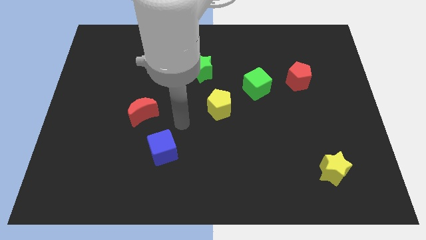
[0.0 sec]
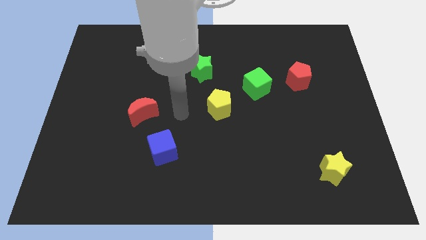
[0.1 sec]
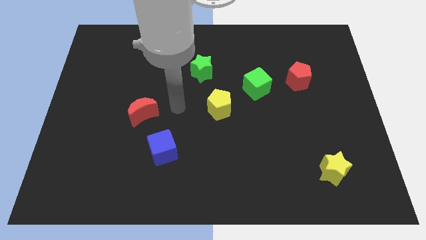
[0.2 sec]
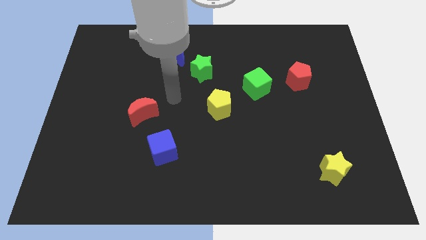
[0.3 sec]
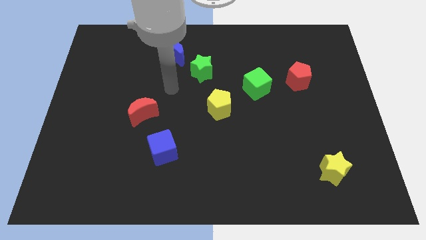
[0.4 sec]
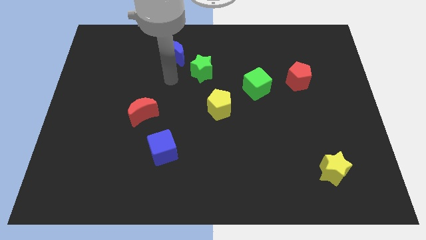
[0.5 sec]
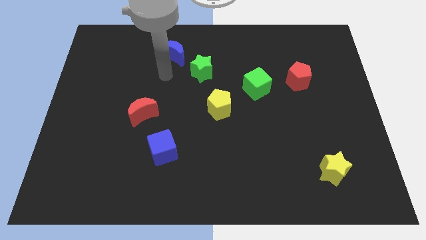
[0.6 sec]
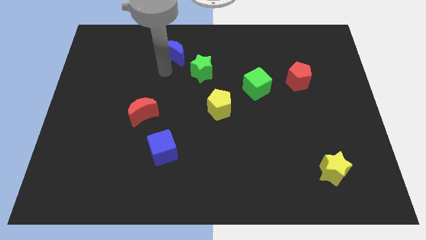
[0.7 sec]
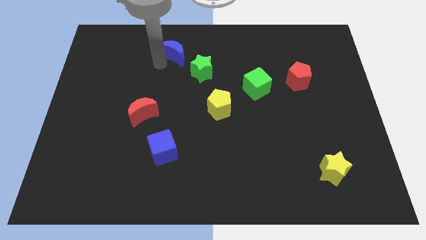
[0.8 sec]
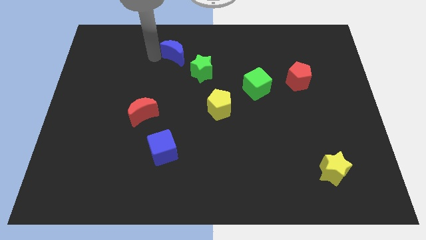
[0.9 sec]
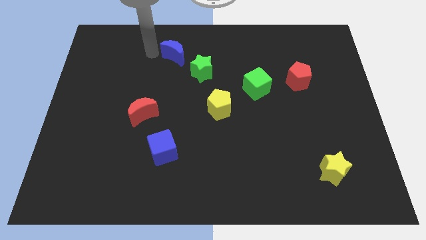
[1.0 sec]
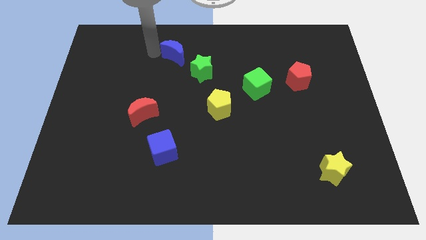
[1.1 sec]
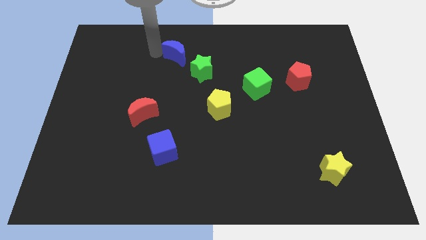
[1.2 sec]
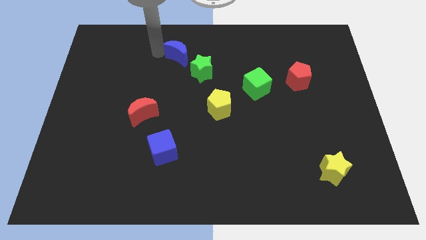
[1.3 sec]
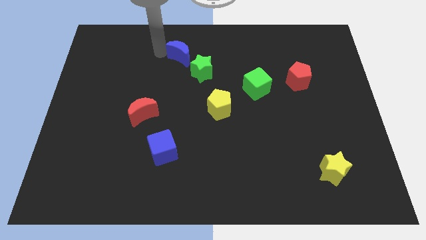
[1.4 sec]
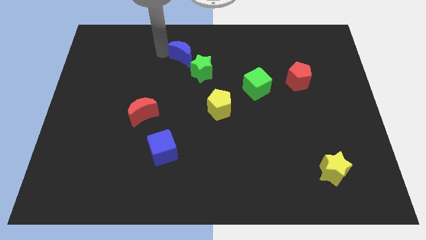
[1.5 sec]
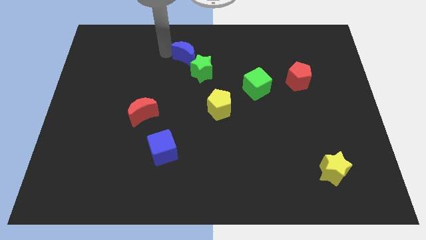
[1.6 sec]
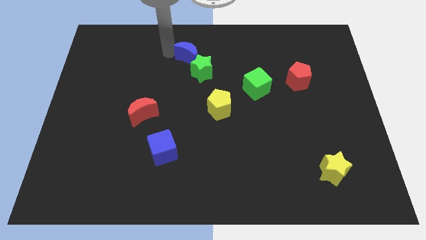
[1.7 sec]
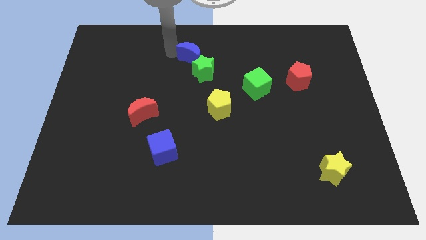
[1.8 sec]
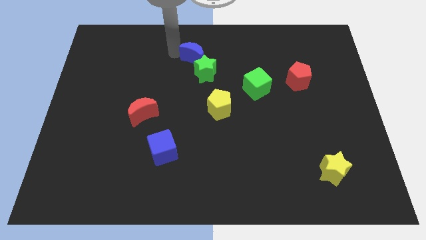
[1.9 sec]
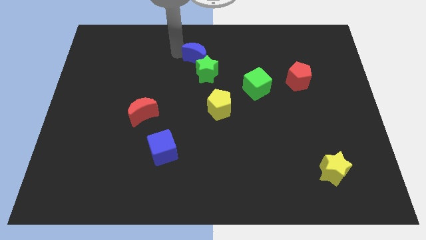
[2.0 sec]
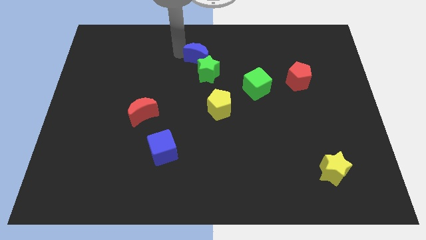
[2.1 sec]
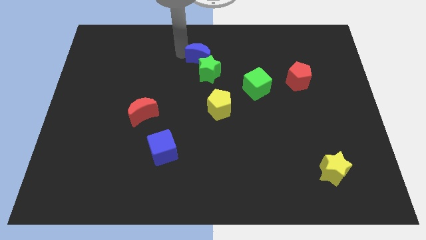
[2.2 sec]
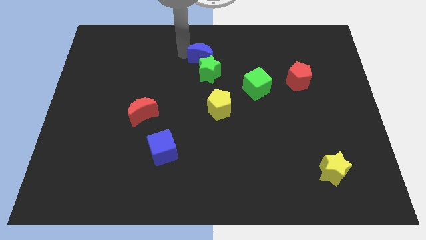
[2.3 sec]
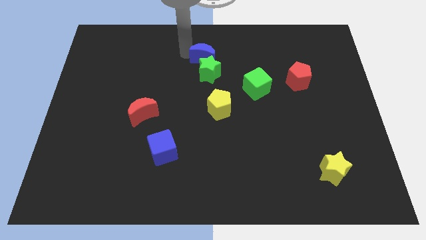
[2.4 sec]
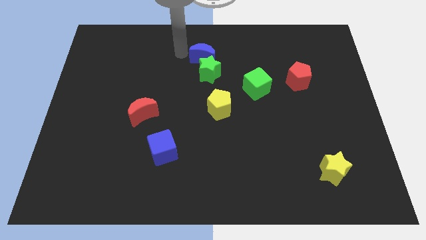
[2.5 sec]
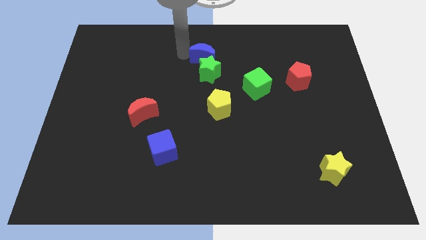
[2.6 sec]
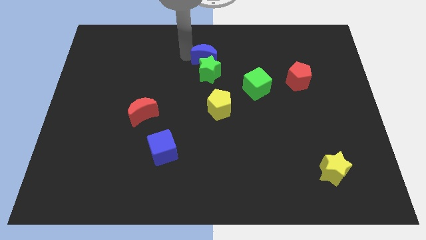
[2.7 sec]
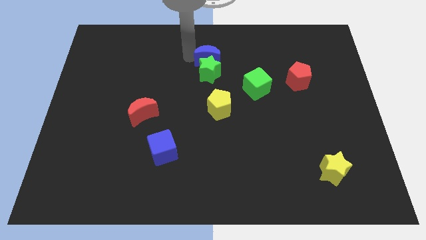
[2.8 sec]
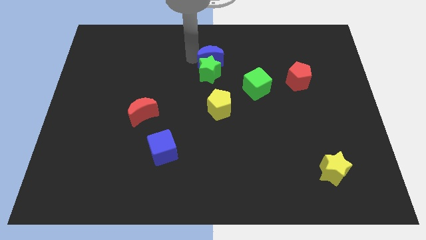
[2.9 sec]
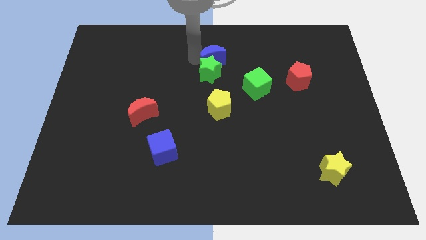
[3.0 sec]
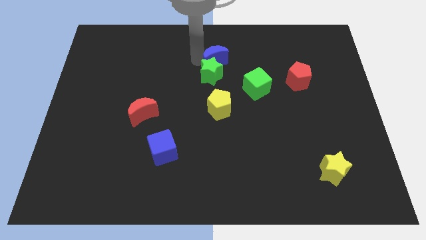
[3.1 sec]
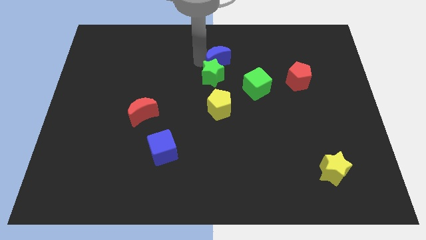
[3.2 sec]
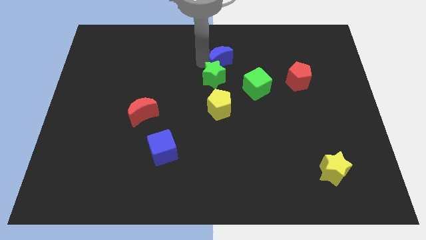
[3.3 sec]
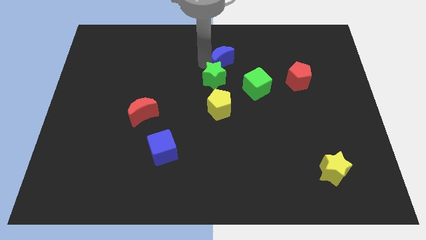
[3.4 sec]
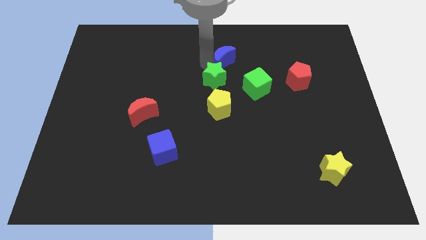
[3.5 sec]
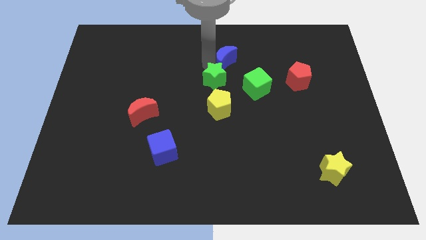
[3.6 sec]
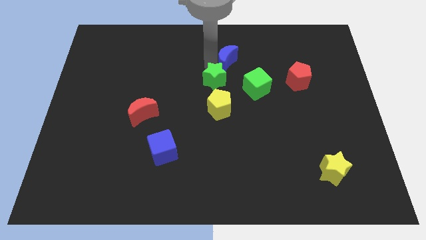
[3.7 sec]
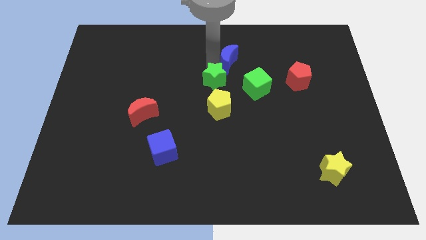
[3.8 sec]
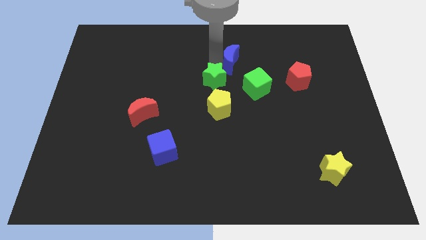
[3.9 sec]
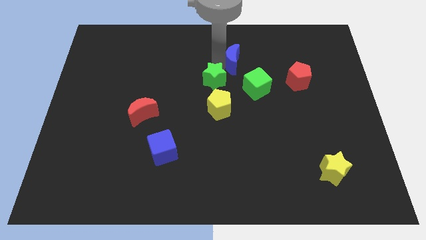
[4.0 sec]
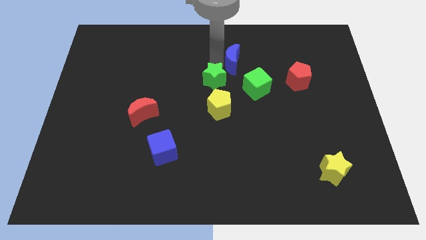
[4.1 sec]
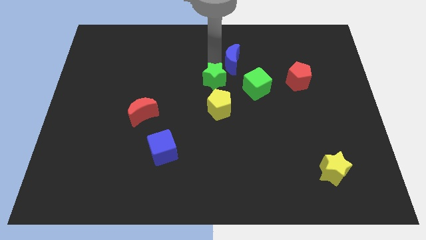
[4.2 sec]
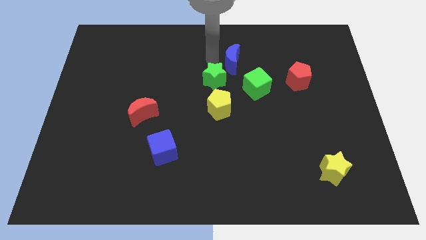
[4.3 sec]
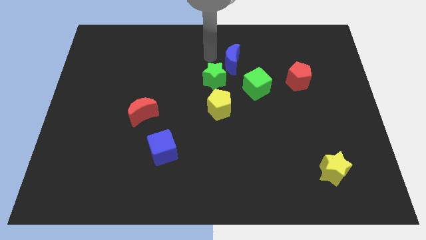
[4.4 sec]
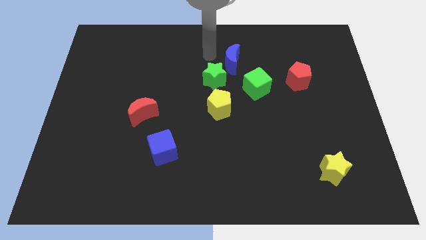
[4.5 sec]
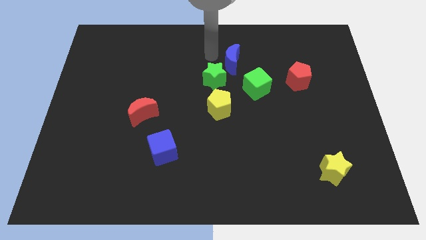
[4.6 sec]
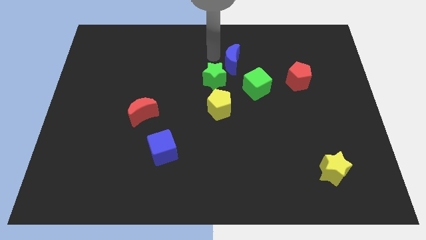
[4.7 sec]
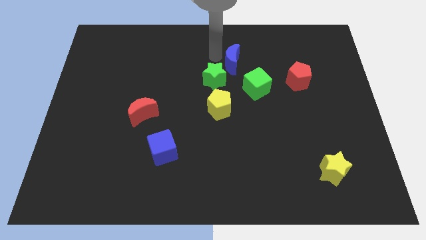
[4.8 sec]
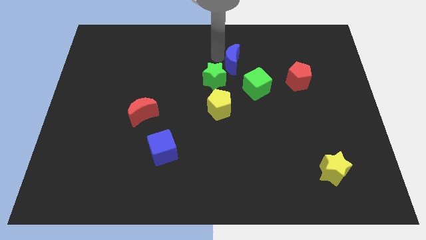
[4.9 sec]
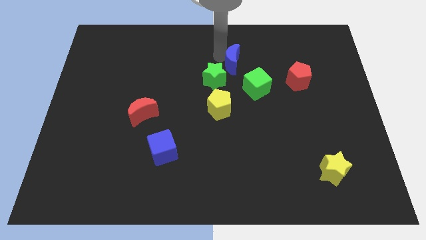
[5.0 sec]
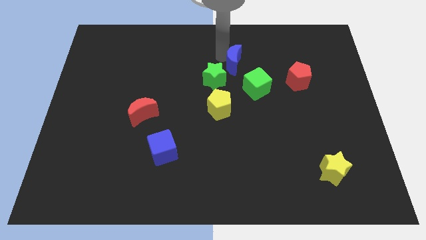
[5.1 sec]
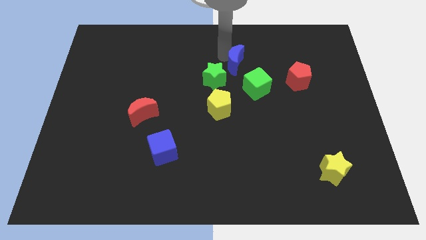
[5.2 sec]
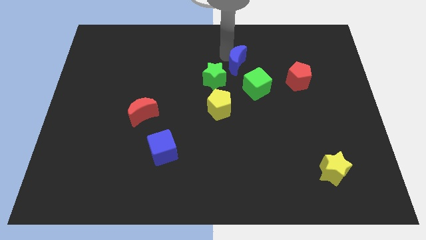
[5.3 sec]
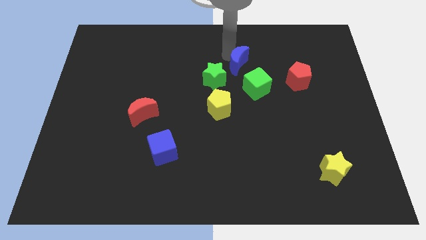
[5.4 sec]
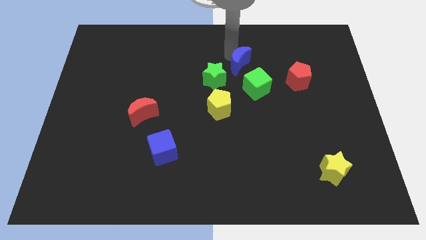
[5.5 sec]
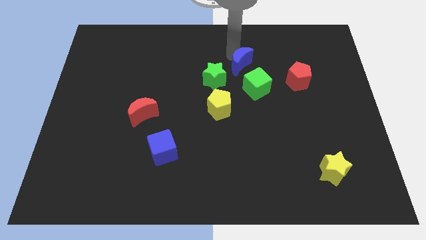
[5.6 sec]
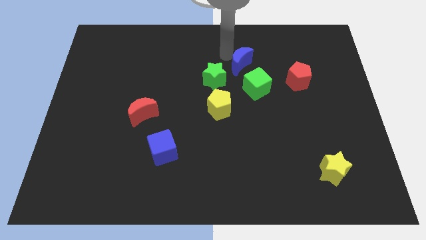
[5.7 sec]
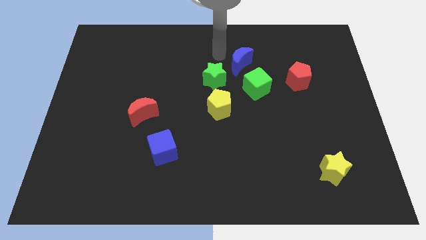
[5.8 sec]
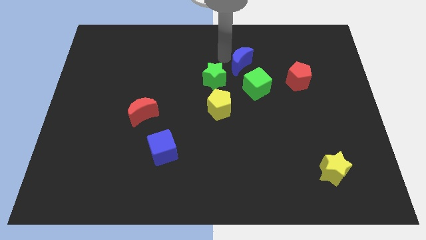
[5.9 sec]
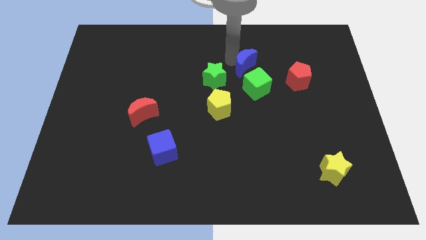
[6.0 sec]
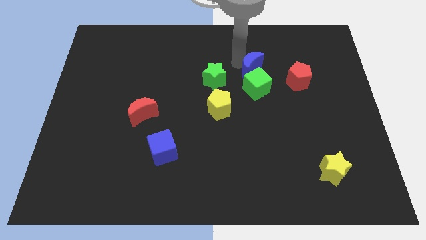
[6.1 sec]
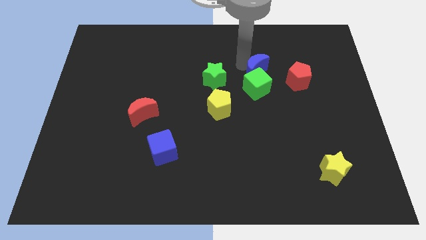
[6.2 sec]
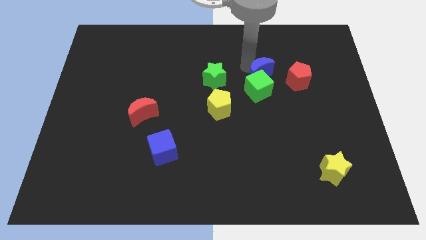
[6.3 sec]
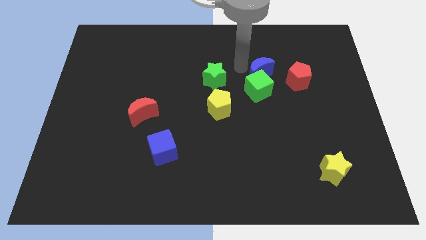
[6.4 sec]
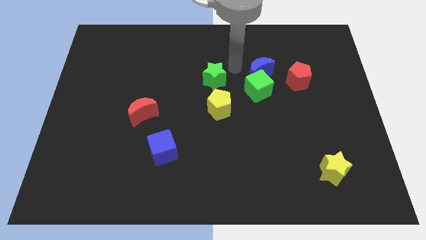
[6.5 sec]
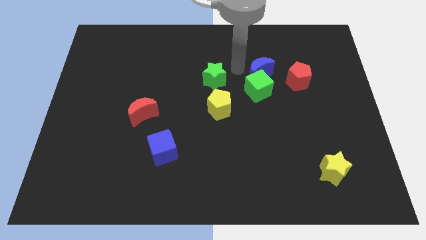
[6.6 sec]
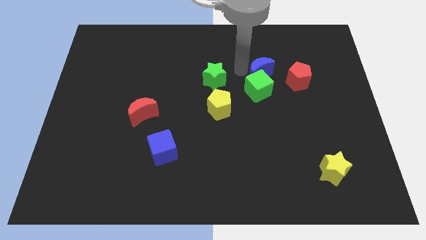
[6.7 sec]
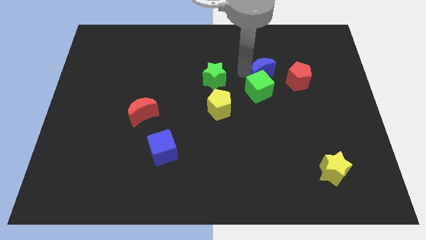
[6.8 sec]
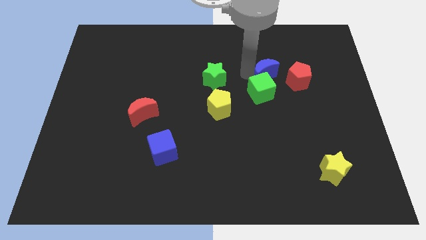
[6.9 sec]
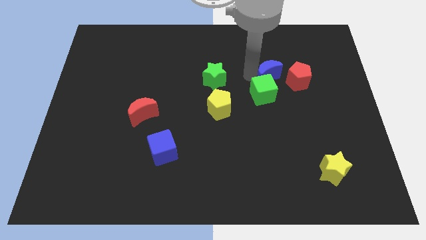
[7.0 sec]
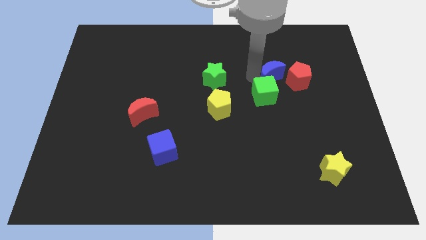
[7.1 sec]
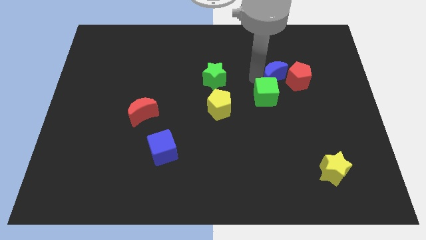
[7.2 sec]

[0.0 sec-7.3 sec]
put the blue moon close to the red pentagon
